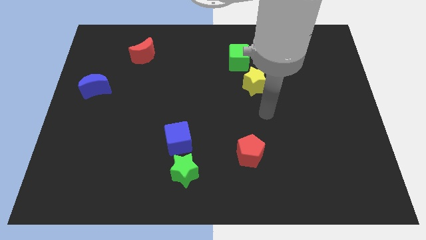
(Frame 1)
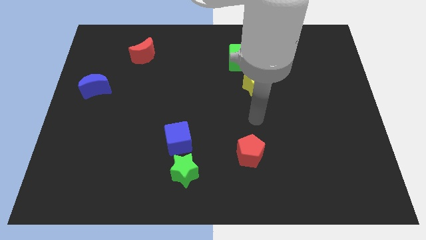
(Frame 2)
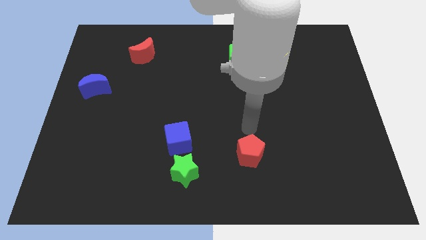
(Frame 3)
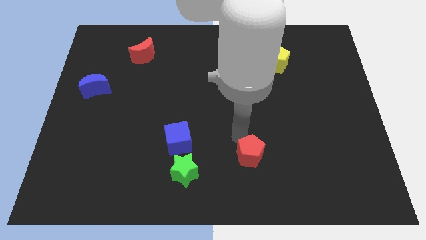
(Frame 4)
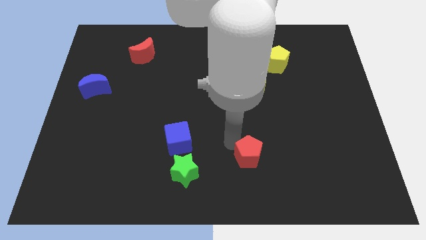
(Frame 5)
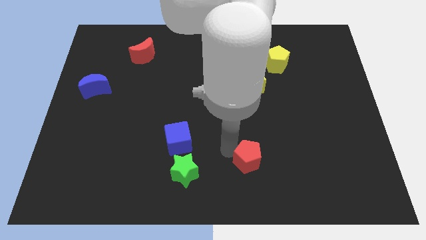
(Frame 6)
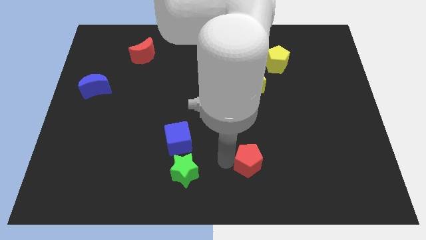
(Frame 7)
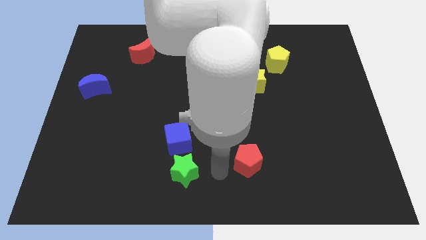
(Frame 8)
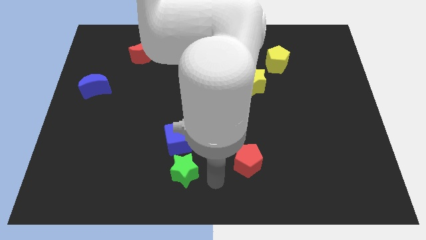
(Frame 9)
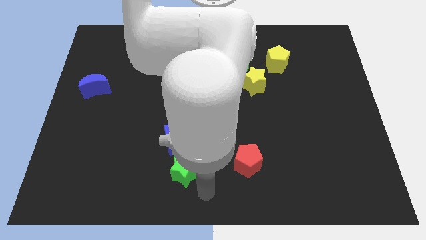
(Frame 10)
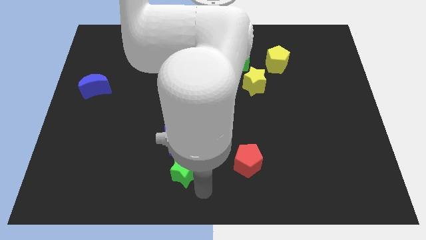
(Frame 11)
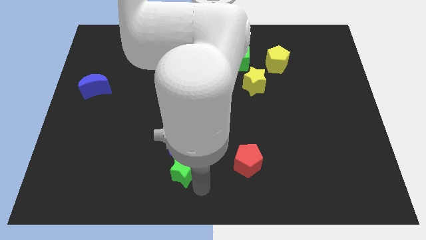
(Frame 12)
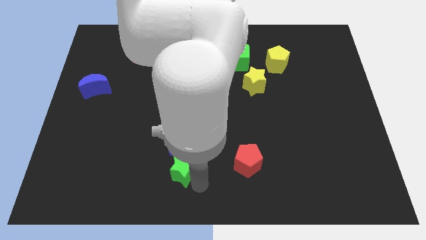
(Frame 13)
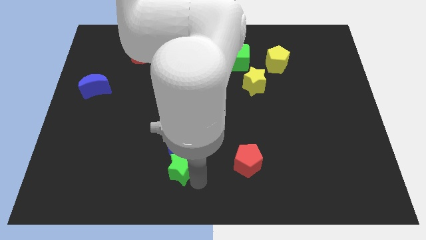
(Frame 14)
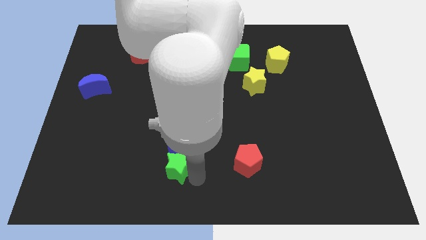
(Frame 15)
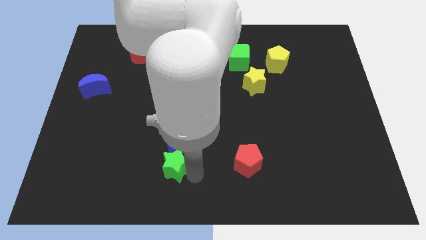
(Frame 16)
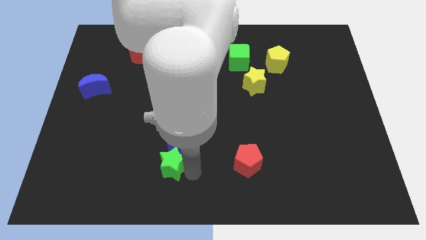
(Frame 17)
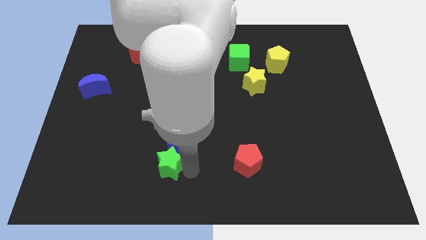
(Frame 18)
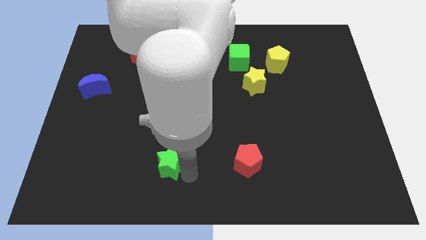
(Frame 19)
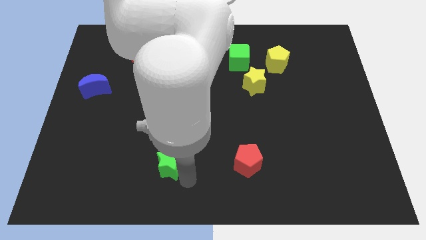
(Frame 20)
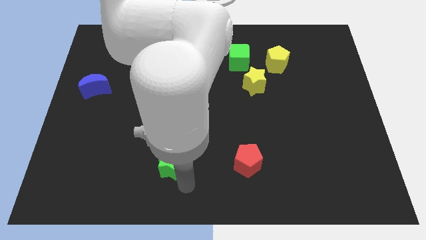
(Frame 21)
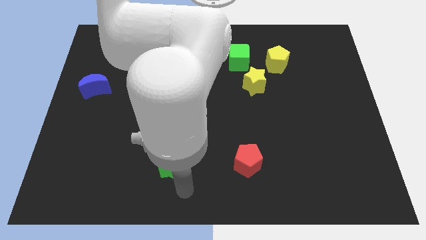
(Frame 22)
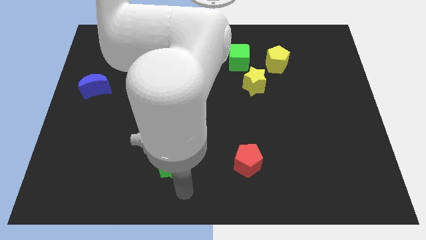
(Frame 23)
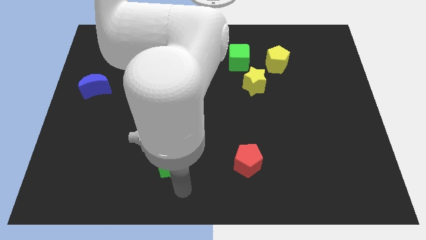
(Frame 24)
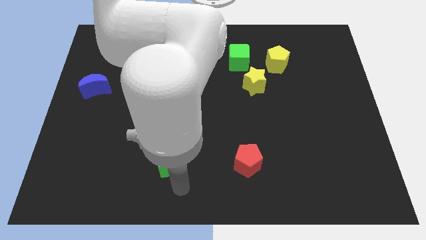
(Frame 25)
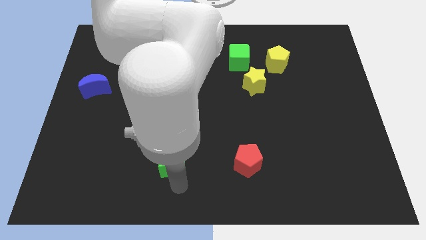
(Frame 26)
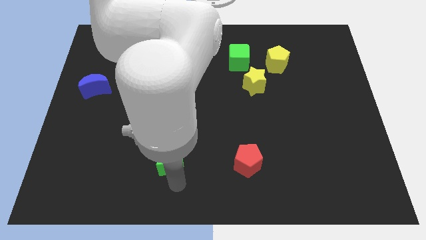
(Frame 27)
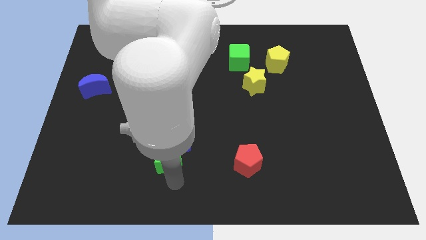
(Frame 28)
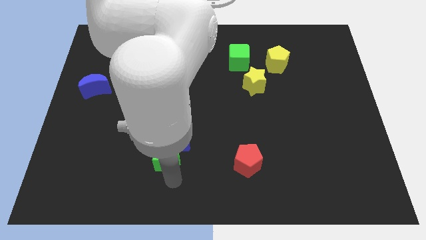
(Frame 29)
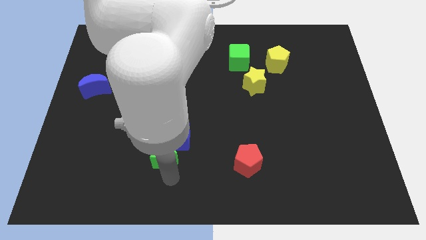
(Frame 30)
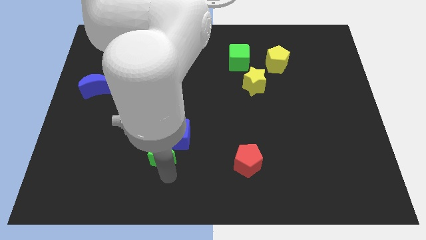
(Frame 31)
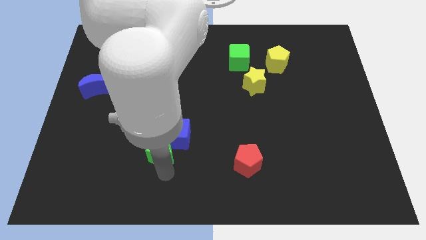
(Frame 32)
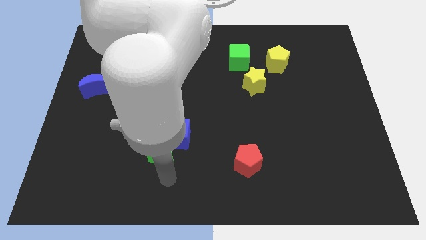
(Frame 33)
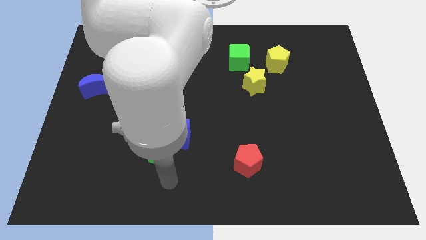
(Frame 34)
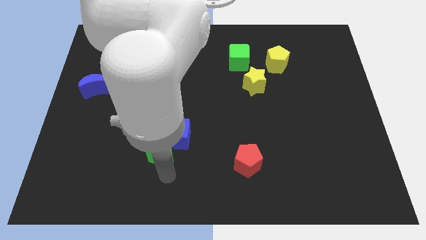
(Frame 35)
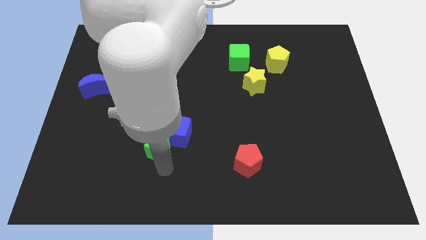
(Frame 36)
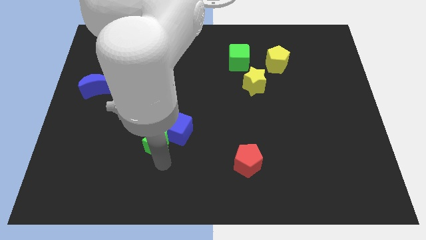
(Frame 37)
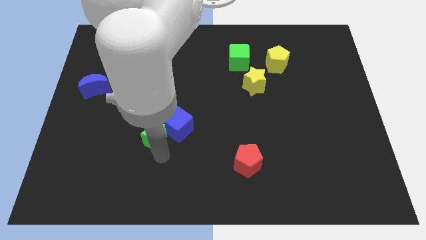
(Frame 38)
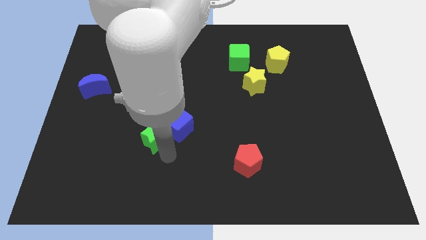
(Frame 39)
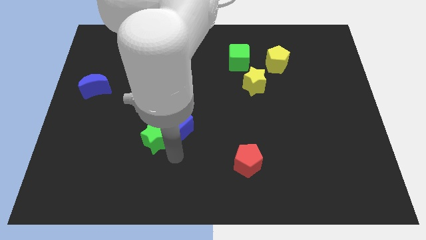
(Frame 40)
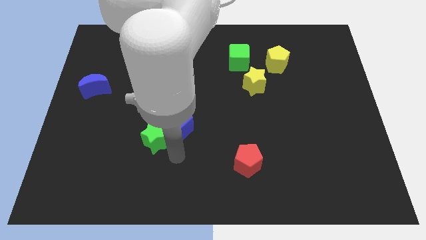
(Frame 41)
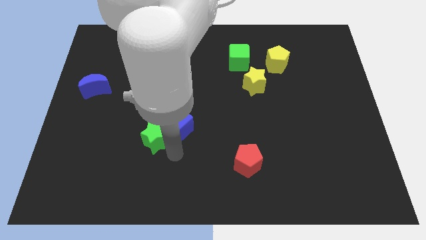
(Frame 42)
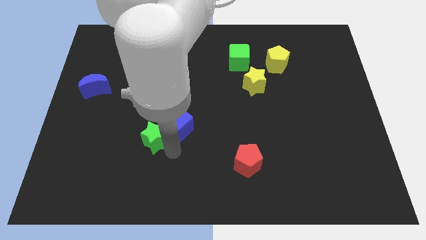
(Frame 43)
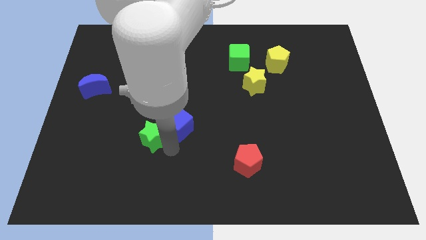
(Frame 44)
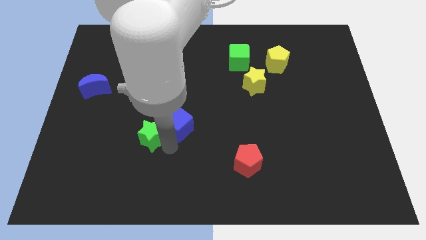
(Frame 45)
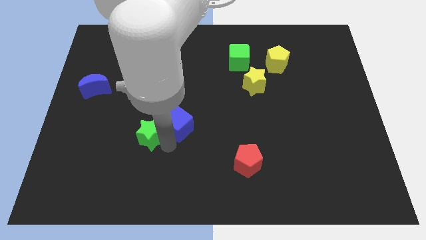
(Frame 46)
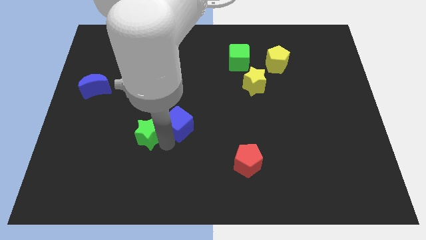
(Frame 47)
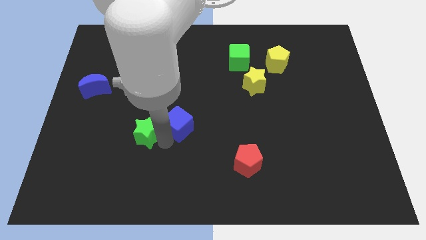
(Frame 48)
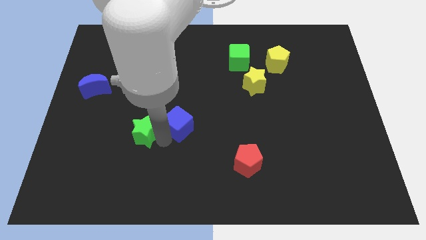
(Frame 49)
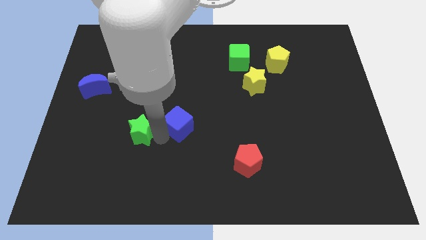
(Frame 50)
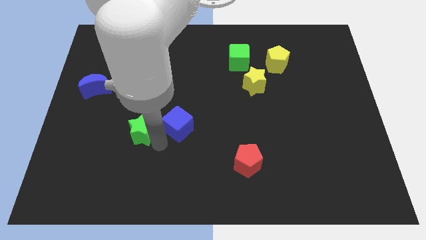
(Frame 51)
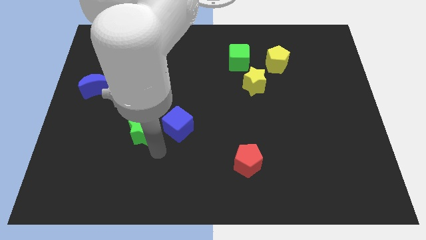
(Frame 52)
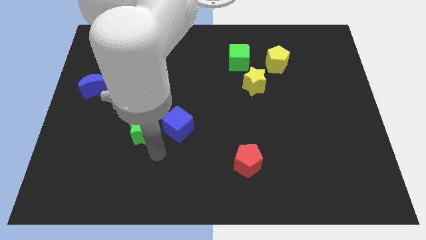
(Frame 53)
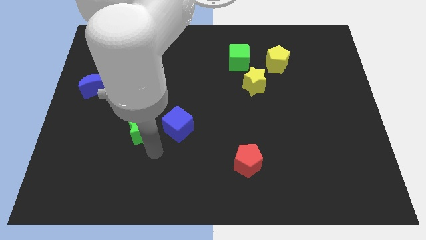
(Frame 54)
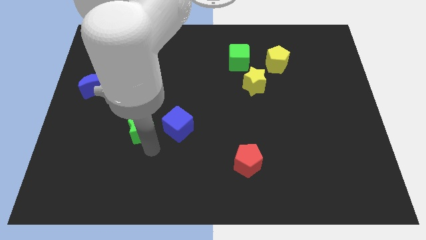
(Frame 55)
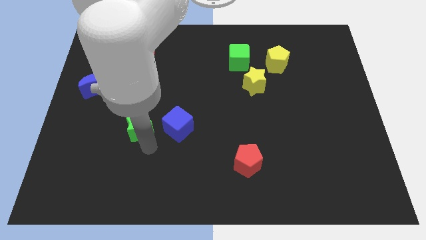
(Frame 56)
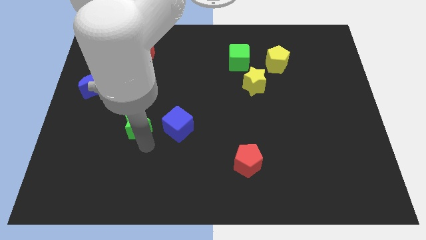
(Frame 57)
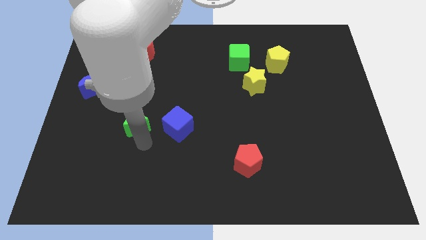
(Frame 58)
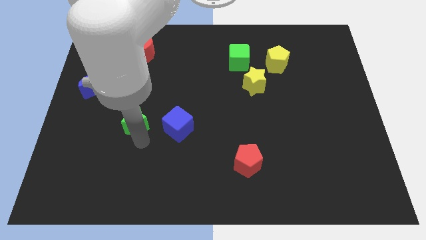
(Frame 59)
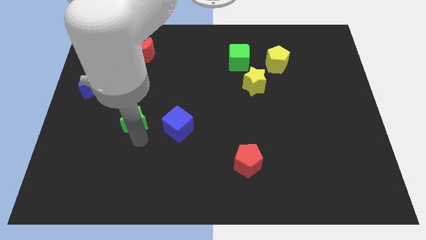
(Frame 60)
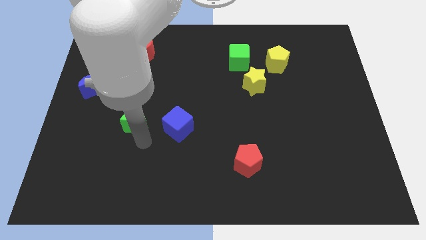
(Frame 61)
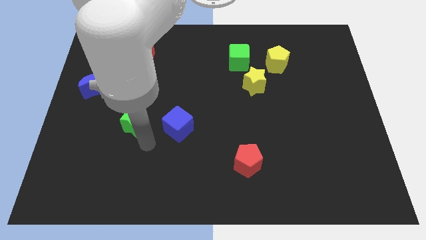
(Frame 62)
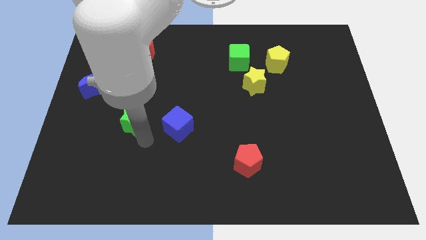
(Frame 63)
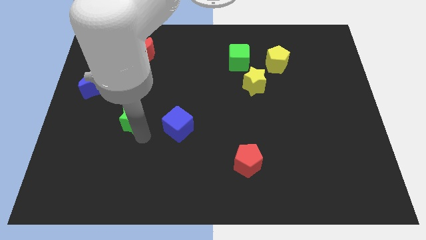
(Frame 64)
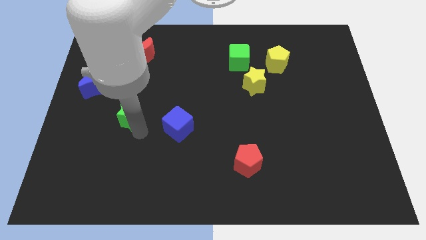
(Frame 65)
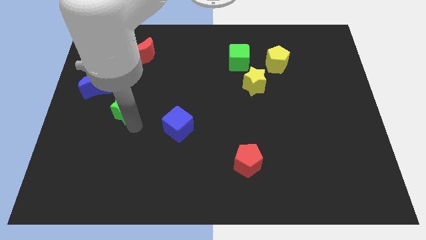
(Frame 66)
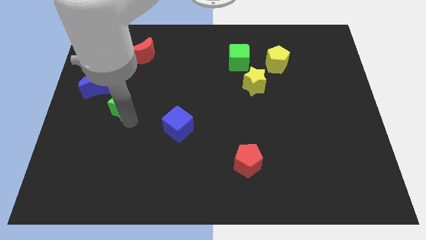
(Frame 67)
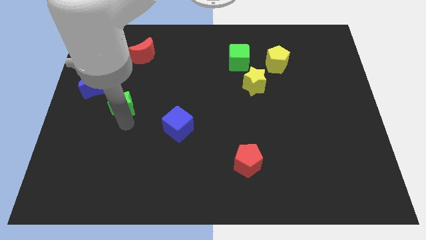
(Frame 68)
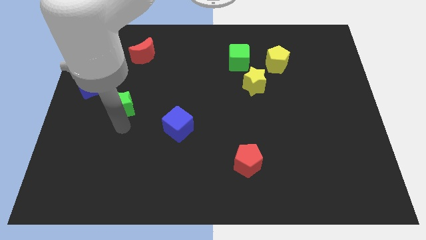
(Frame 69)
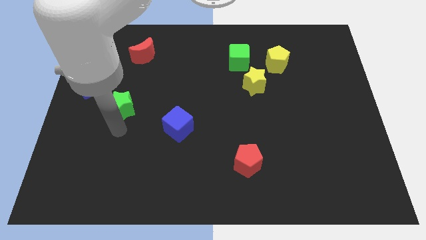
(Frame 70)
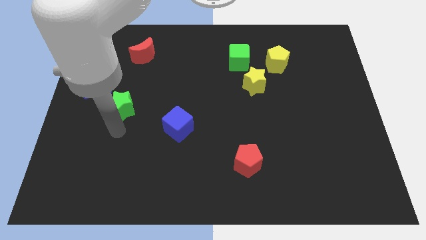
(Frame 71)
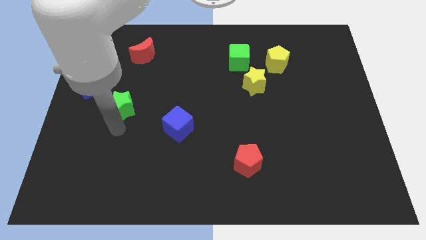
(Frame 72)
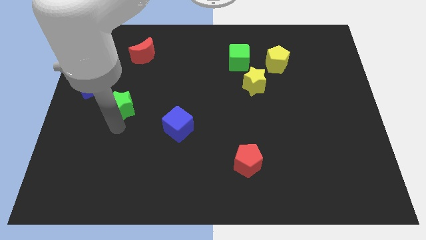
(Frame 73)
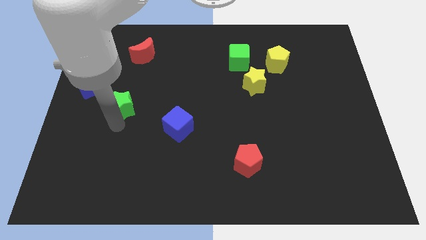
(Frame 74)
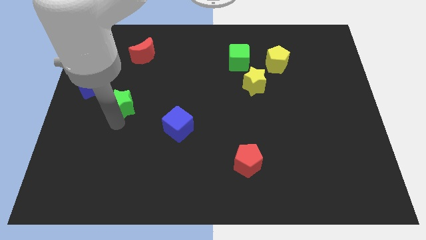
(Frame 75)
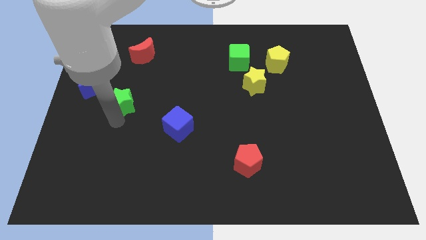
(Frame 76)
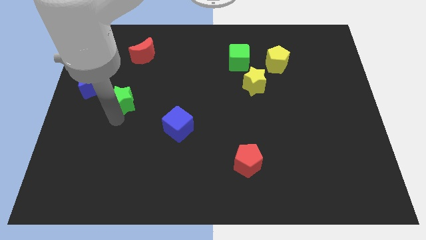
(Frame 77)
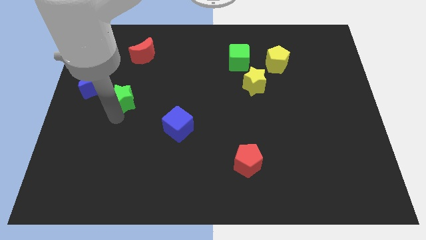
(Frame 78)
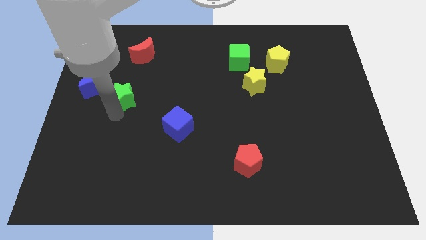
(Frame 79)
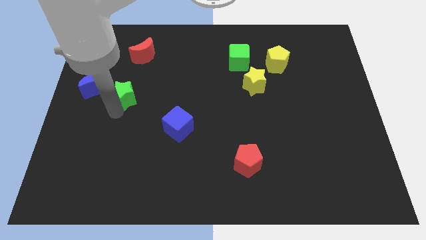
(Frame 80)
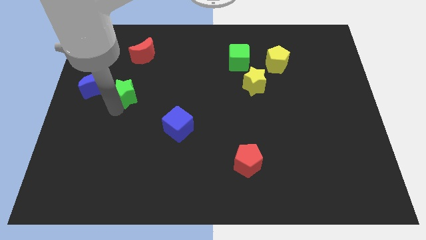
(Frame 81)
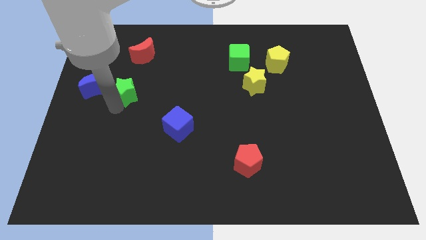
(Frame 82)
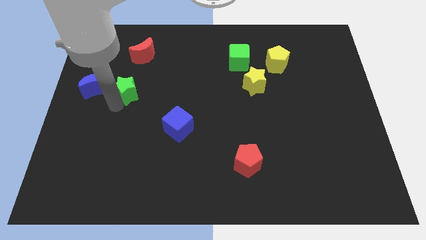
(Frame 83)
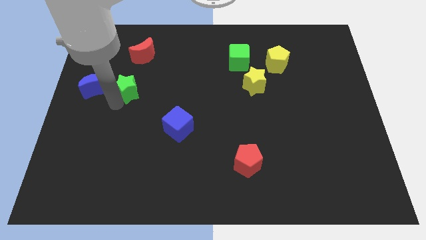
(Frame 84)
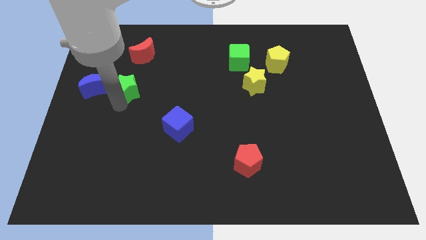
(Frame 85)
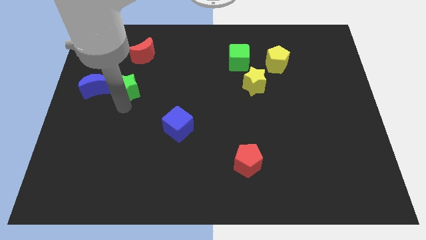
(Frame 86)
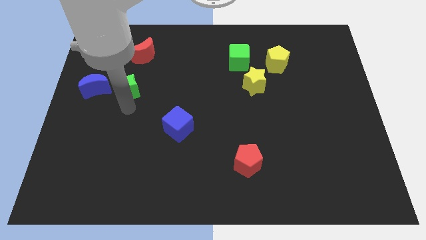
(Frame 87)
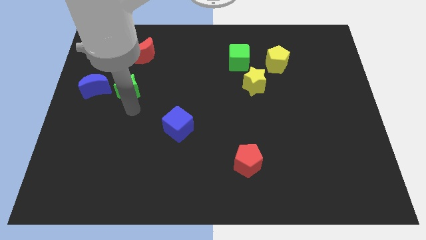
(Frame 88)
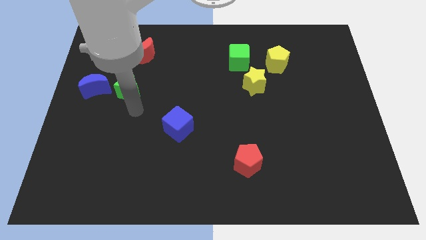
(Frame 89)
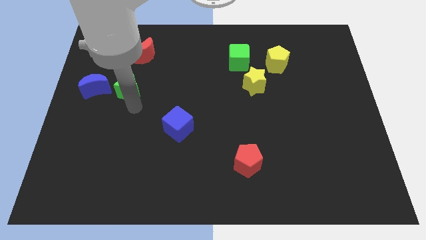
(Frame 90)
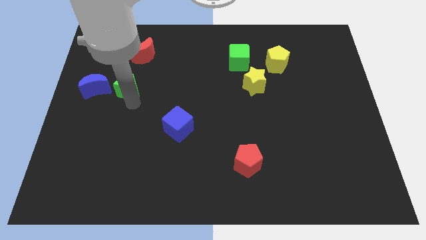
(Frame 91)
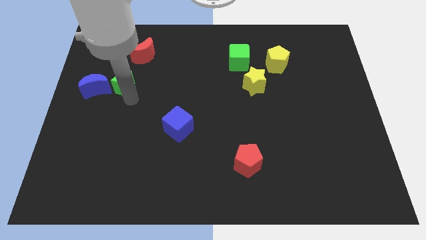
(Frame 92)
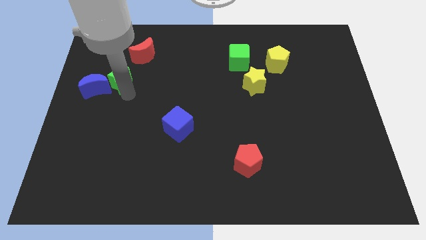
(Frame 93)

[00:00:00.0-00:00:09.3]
push the green star to the bottom left side of the red moon
